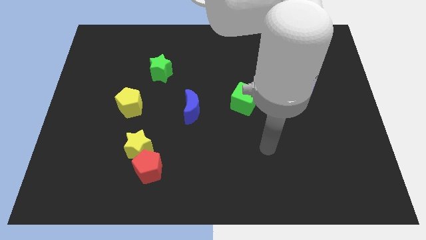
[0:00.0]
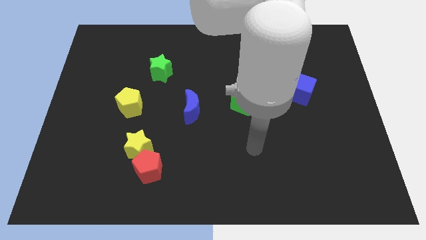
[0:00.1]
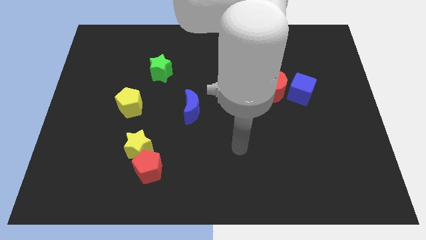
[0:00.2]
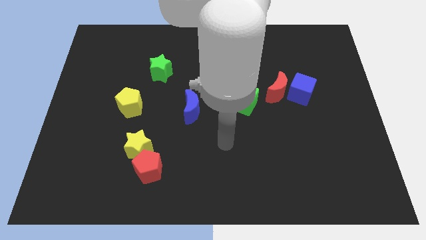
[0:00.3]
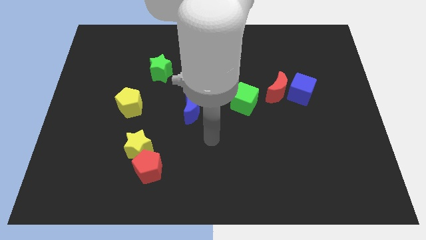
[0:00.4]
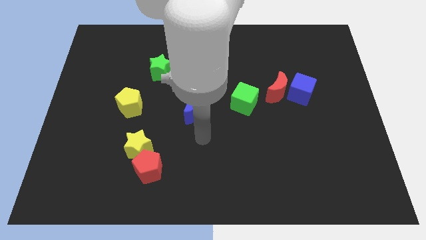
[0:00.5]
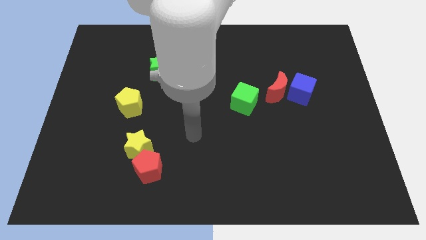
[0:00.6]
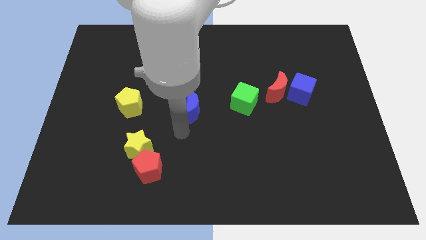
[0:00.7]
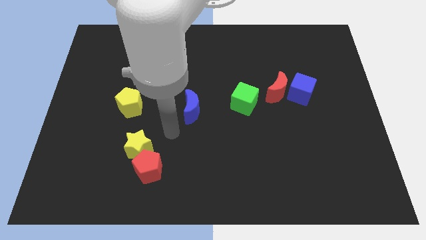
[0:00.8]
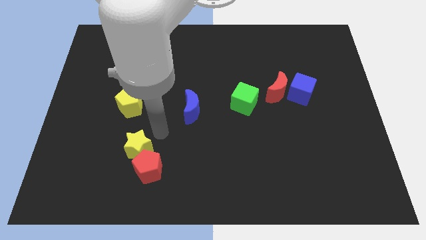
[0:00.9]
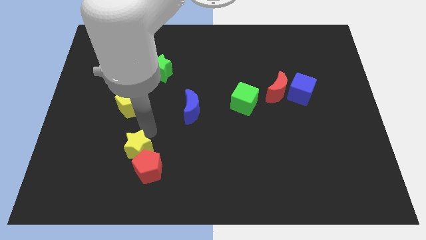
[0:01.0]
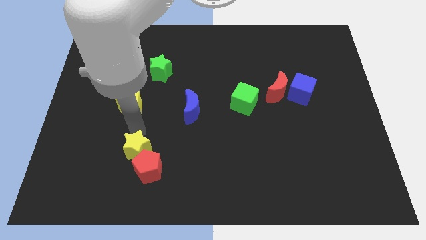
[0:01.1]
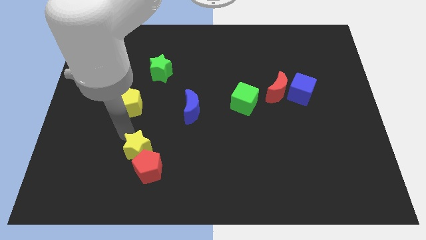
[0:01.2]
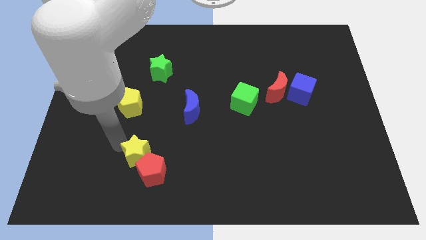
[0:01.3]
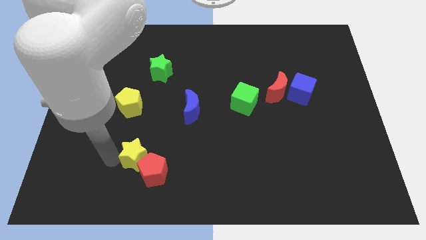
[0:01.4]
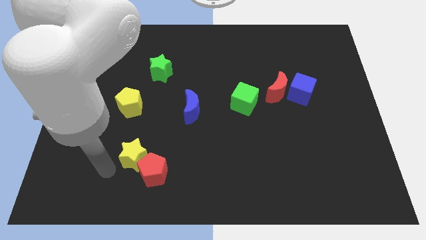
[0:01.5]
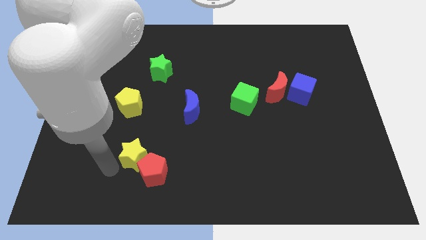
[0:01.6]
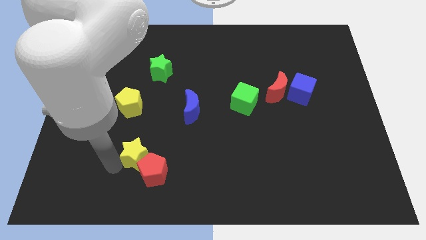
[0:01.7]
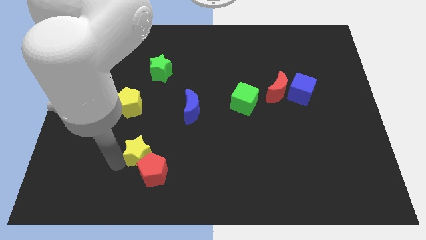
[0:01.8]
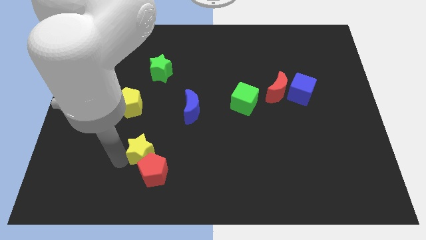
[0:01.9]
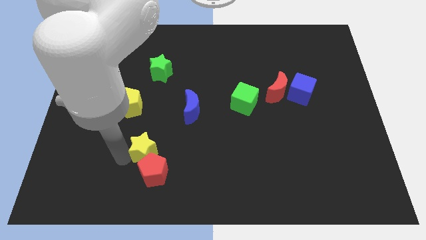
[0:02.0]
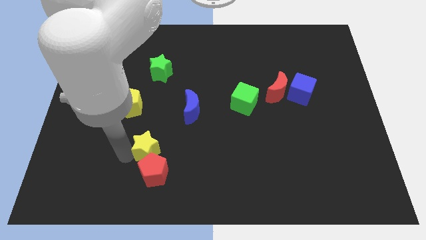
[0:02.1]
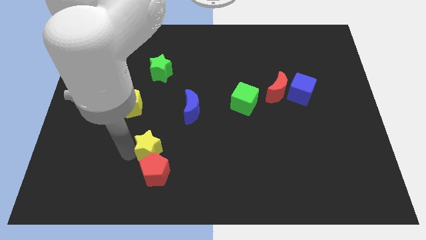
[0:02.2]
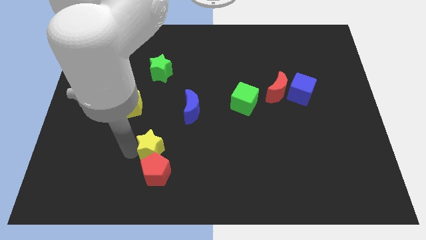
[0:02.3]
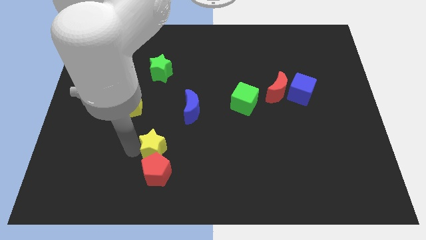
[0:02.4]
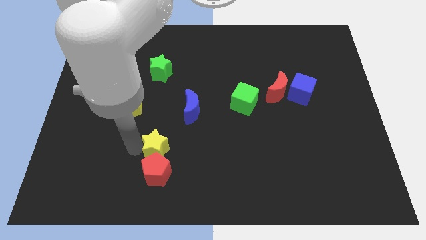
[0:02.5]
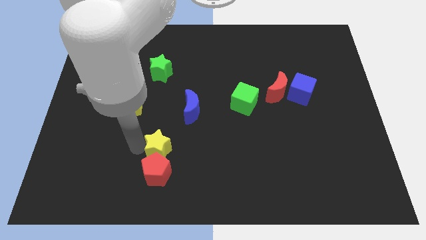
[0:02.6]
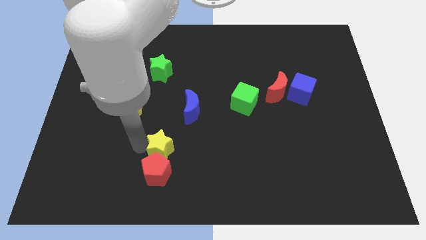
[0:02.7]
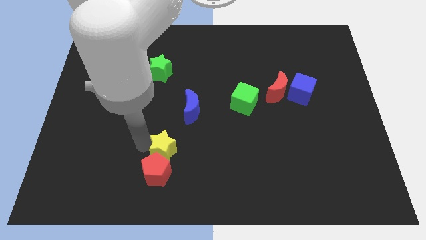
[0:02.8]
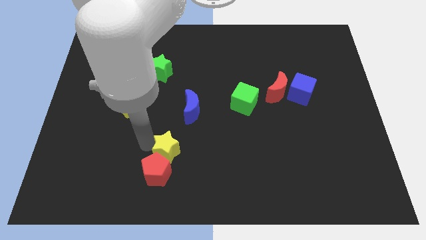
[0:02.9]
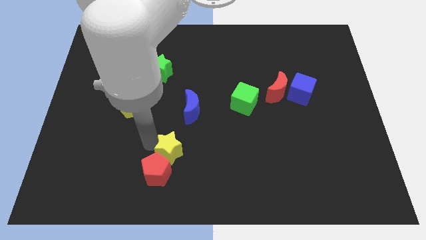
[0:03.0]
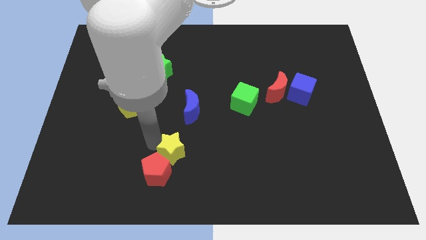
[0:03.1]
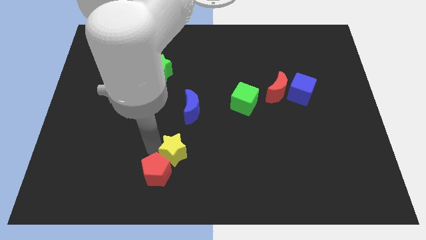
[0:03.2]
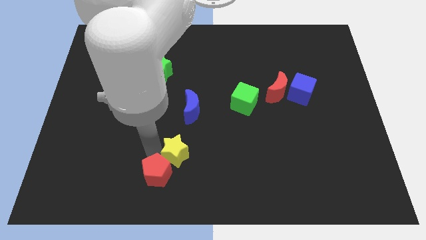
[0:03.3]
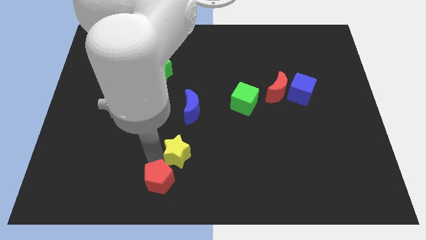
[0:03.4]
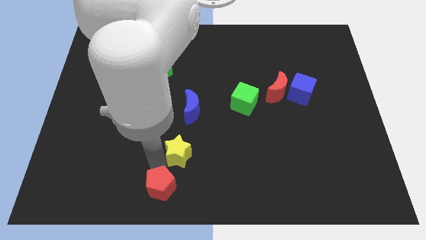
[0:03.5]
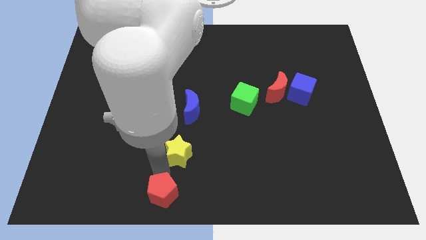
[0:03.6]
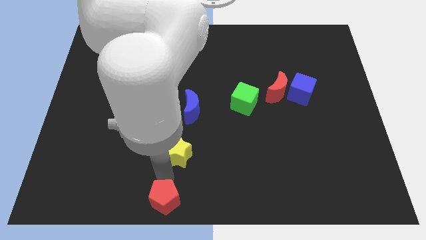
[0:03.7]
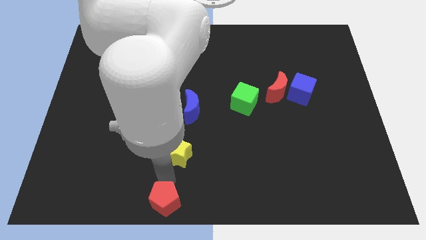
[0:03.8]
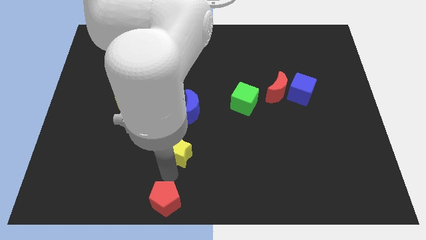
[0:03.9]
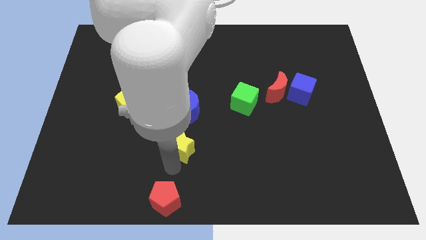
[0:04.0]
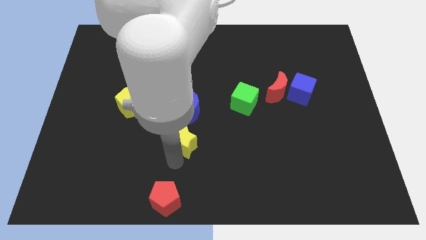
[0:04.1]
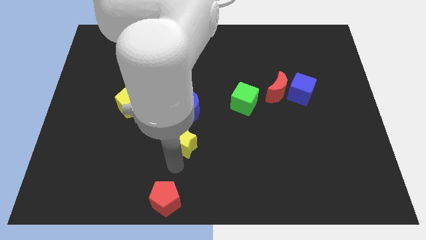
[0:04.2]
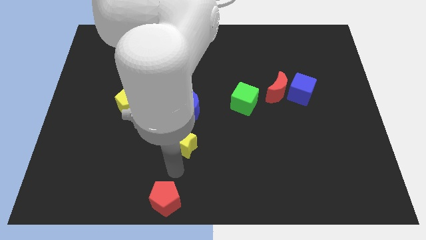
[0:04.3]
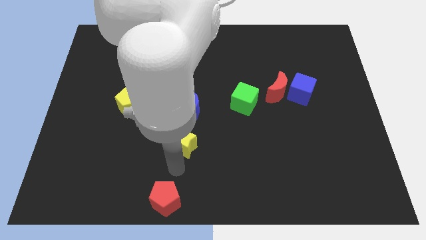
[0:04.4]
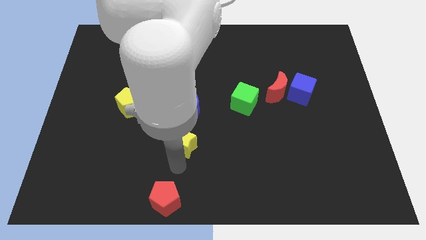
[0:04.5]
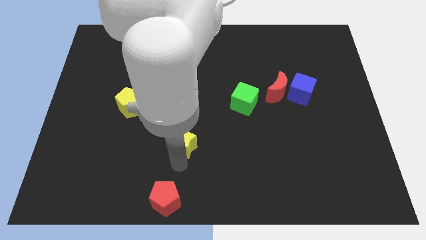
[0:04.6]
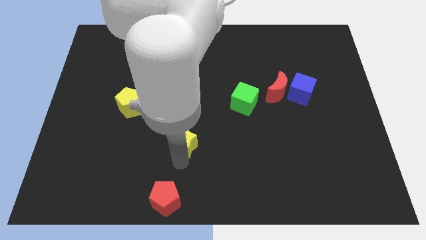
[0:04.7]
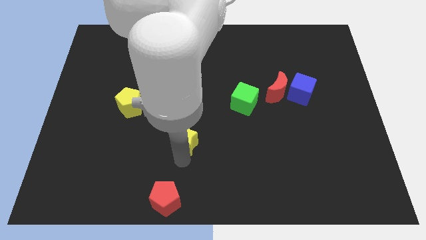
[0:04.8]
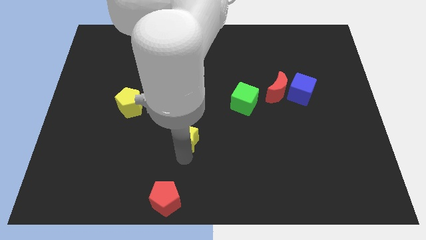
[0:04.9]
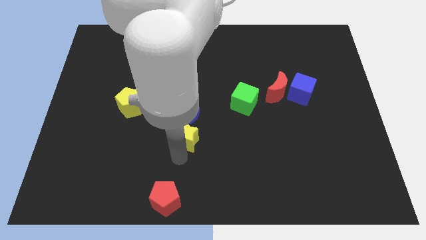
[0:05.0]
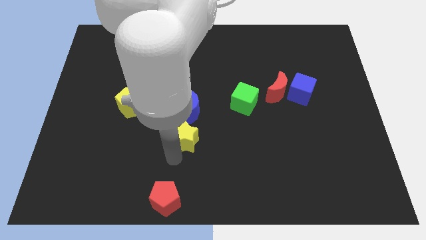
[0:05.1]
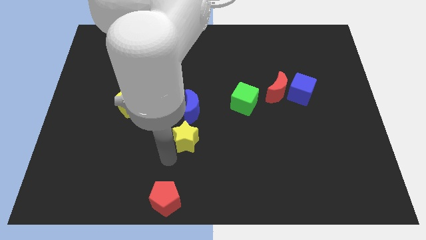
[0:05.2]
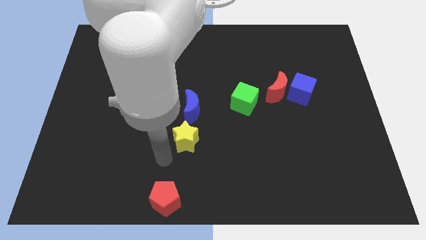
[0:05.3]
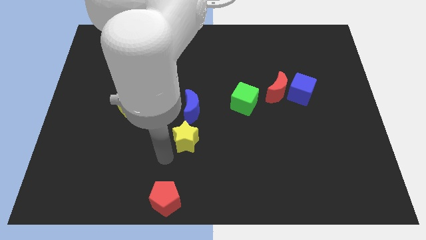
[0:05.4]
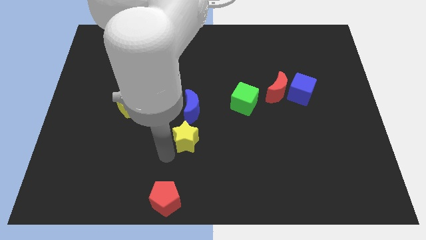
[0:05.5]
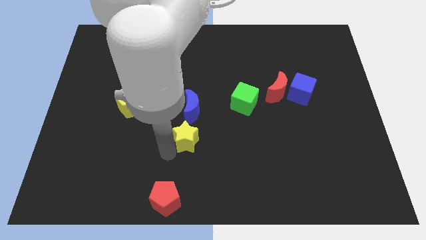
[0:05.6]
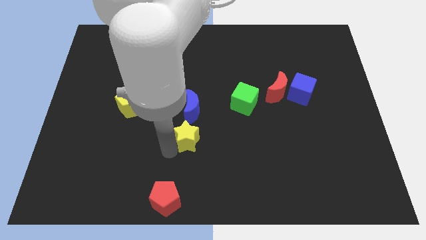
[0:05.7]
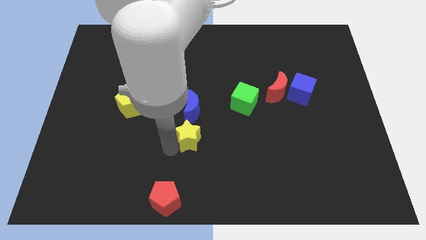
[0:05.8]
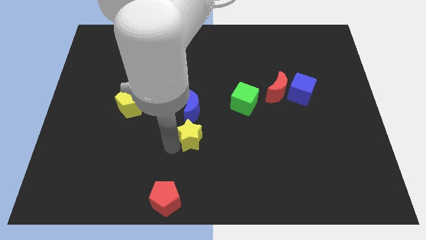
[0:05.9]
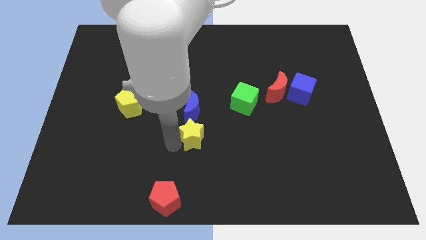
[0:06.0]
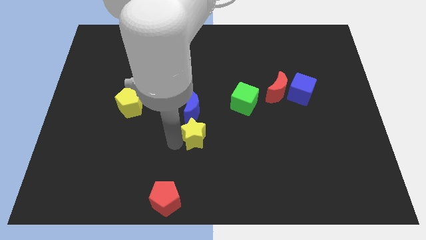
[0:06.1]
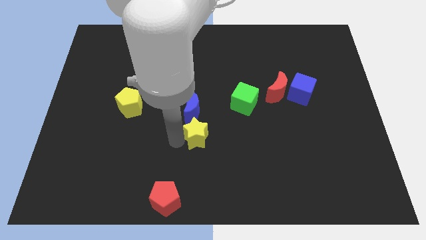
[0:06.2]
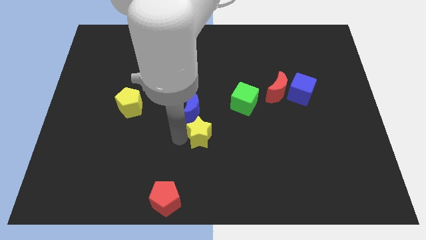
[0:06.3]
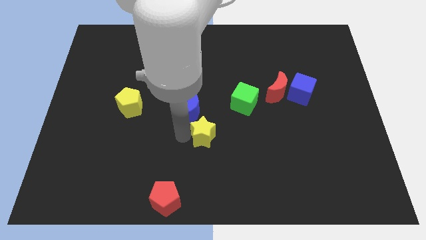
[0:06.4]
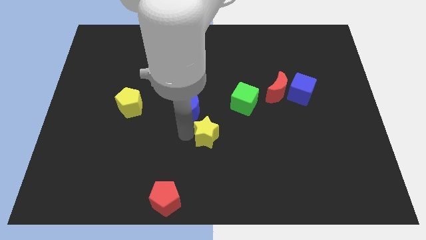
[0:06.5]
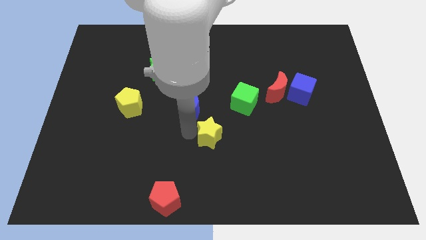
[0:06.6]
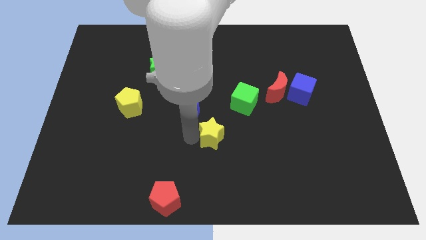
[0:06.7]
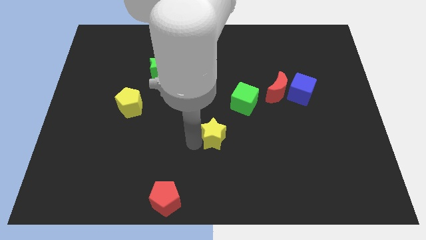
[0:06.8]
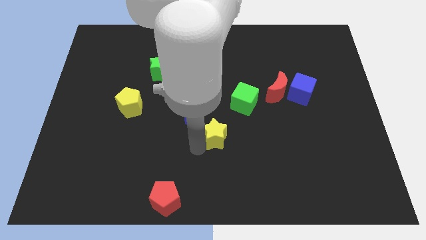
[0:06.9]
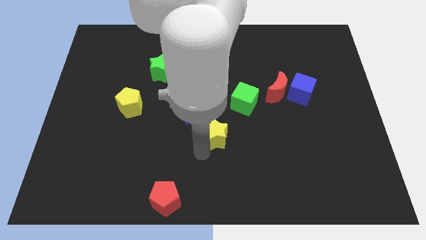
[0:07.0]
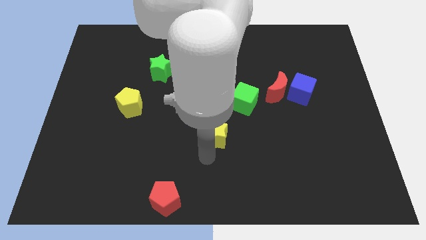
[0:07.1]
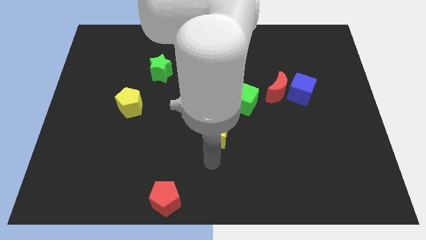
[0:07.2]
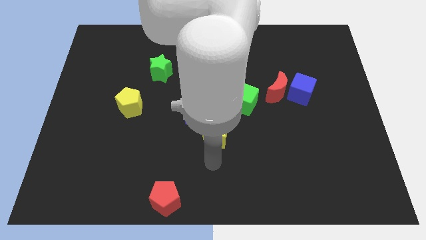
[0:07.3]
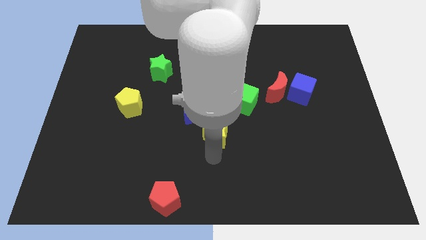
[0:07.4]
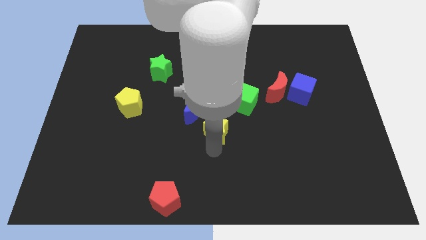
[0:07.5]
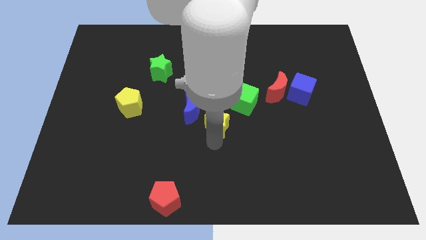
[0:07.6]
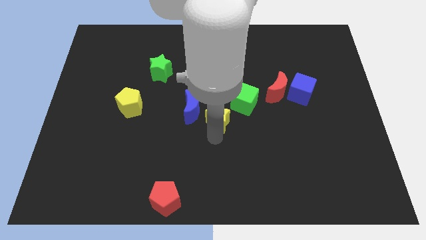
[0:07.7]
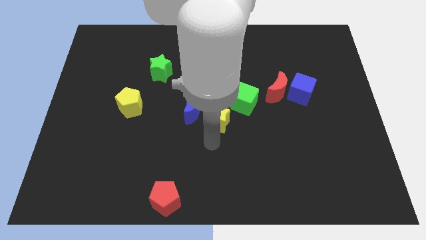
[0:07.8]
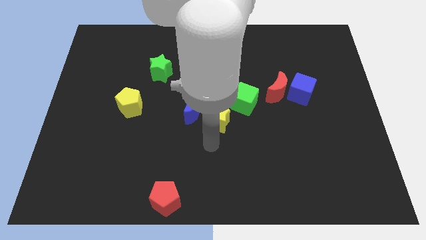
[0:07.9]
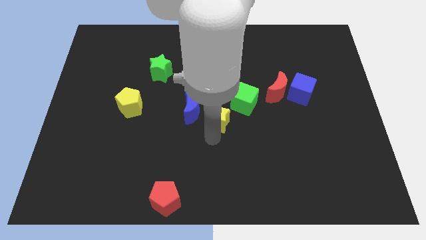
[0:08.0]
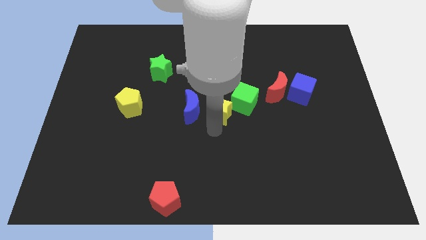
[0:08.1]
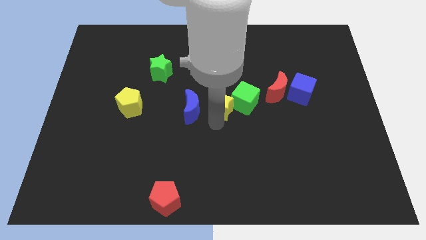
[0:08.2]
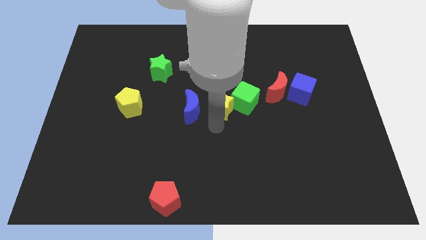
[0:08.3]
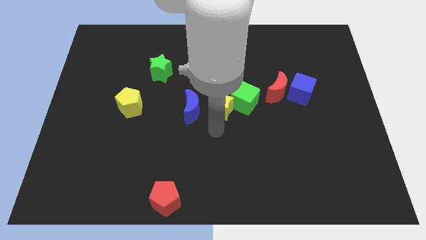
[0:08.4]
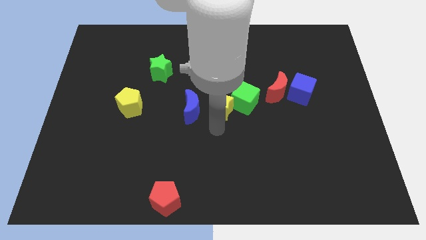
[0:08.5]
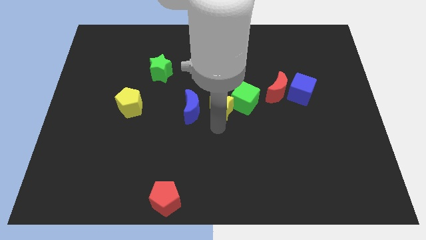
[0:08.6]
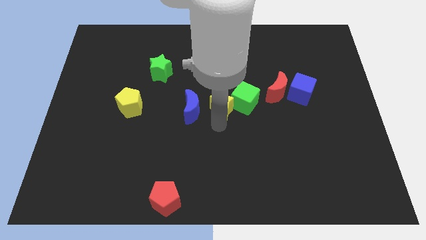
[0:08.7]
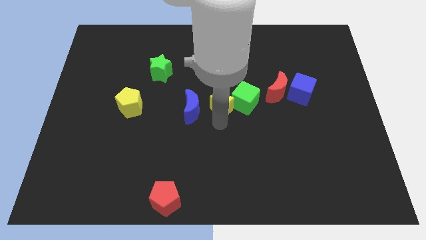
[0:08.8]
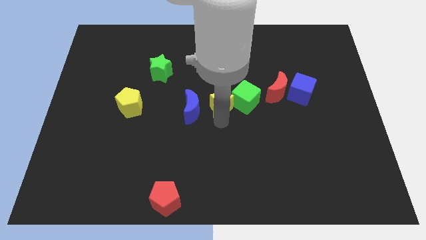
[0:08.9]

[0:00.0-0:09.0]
move the yellow star upwards and right diagonally
